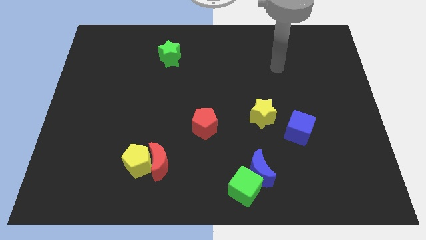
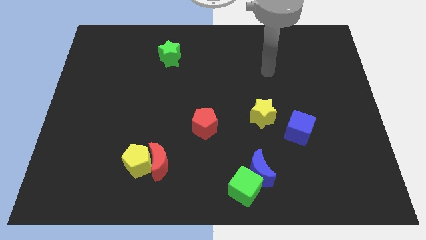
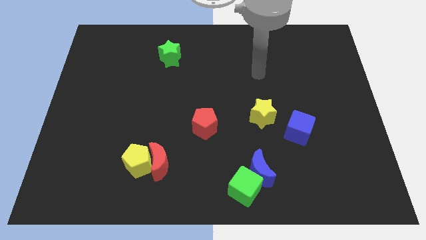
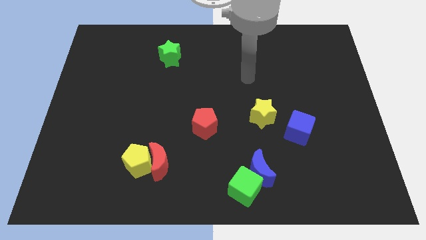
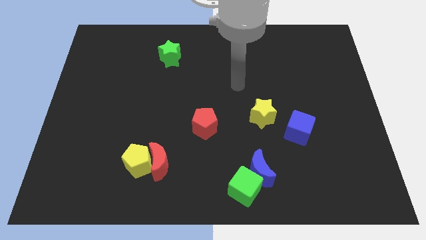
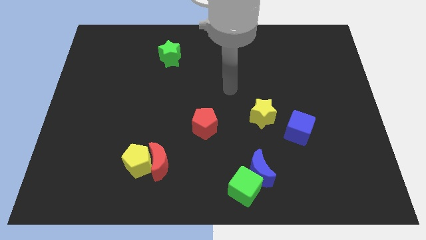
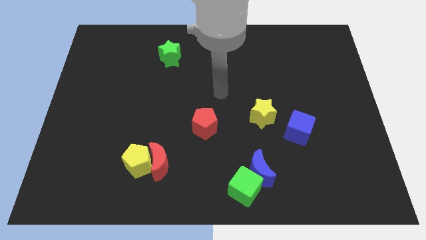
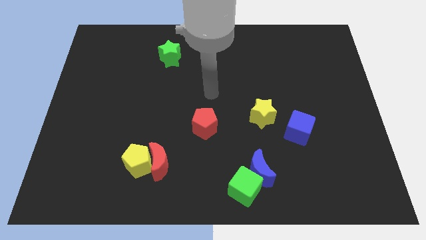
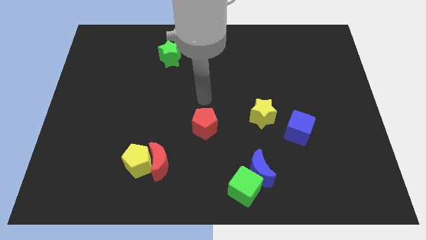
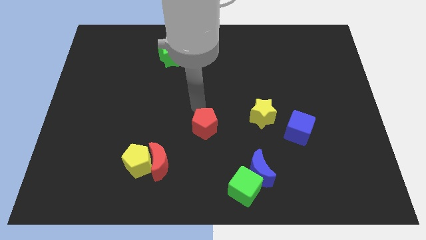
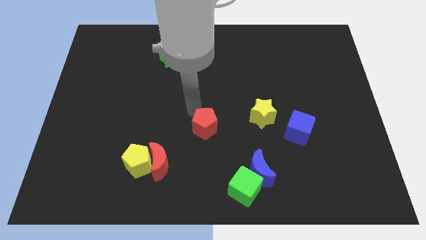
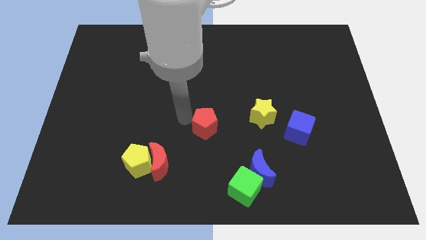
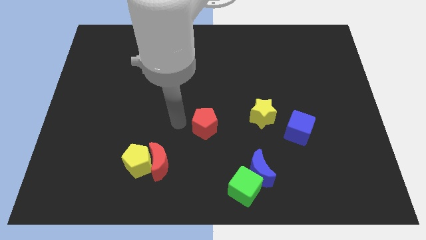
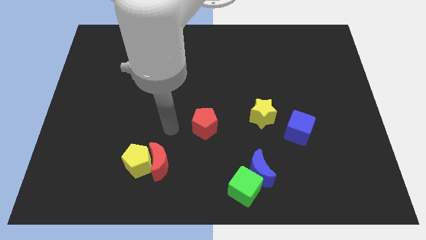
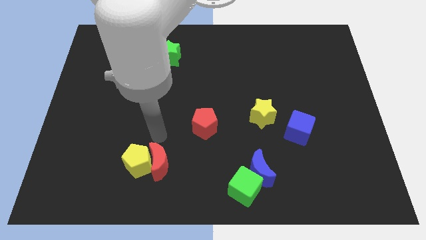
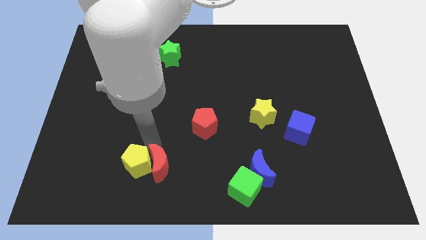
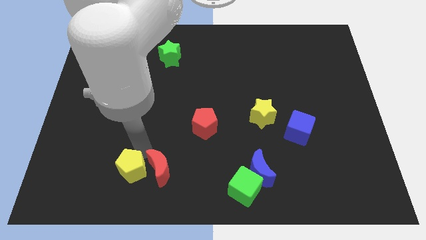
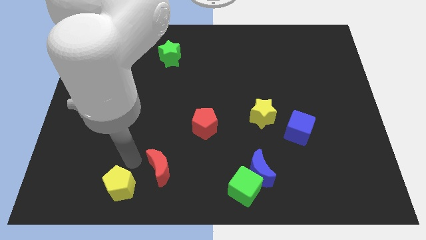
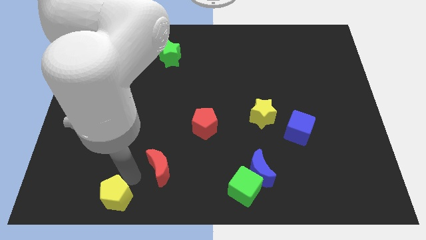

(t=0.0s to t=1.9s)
pull the red moon apart from the yellow pentagon

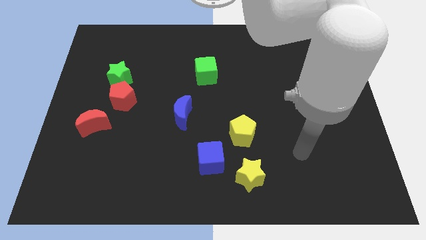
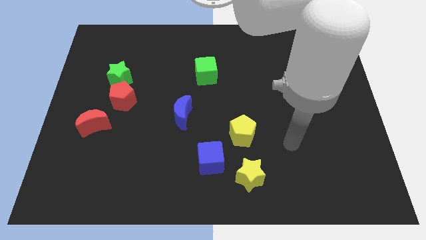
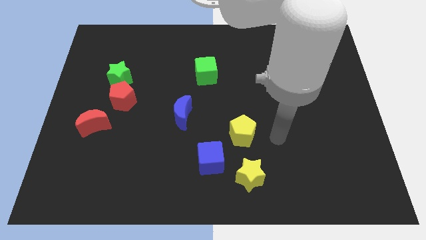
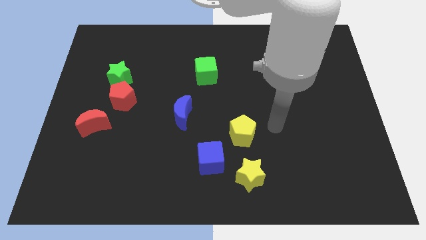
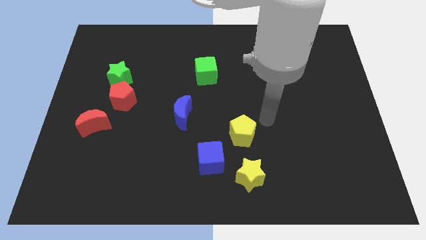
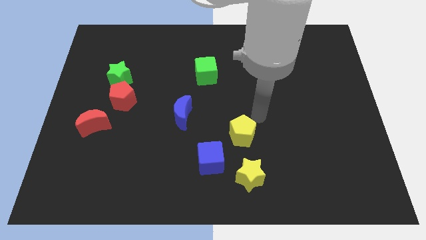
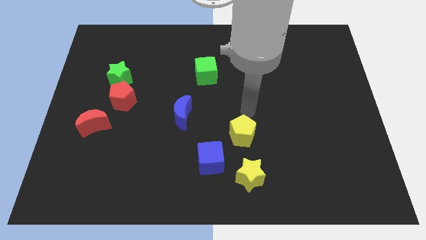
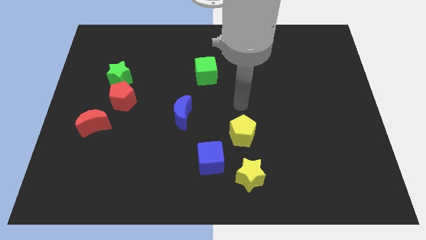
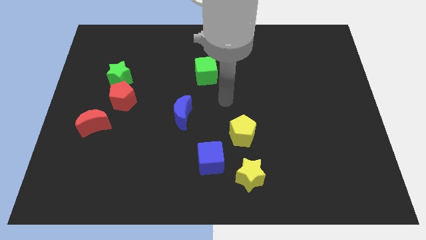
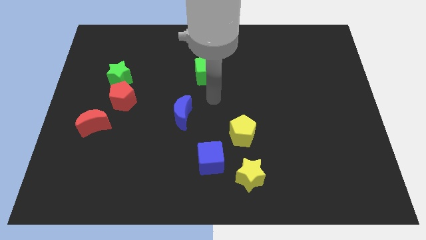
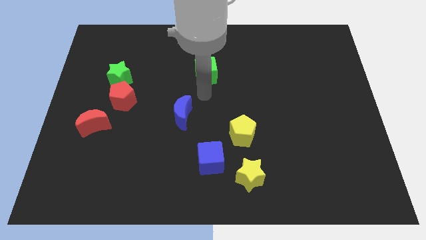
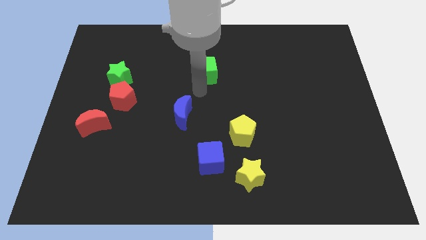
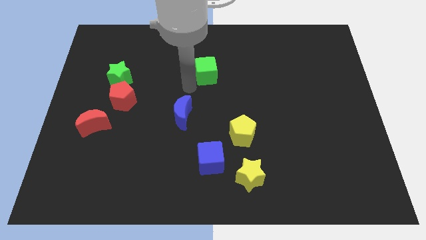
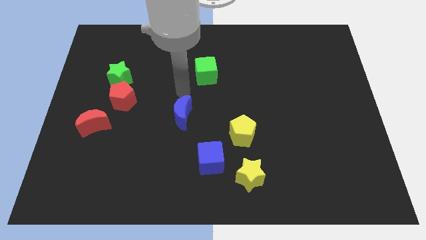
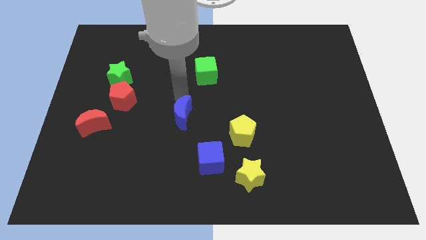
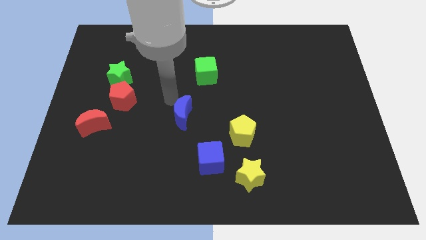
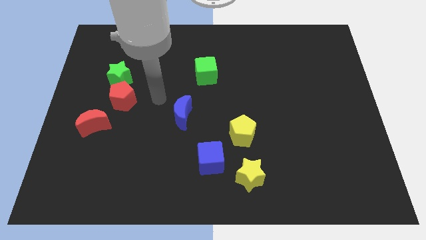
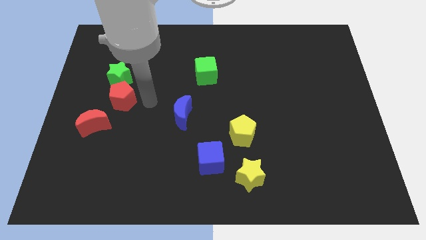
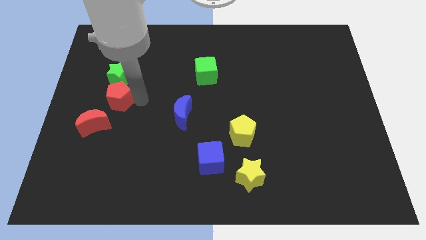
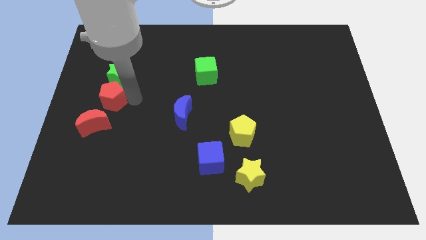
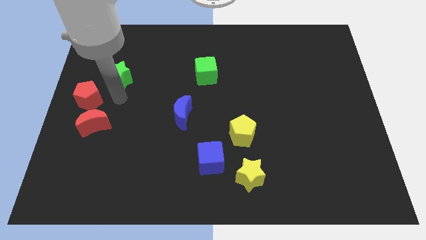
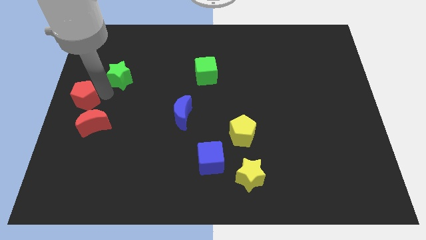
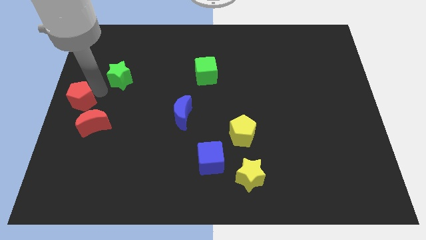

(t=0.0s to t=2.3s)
separate the green star from the red pentagon

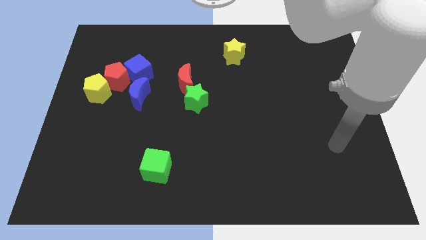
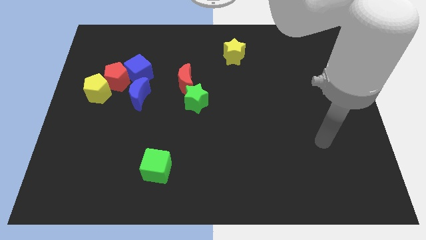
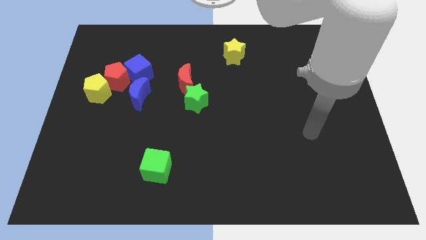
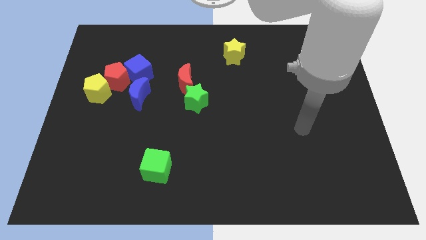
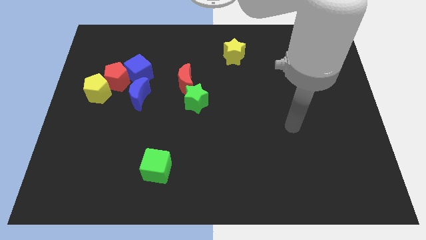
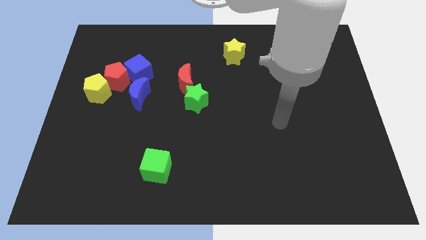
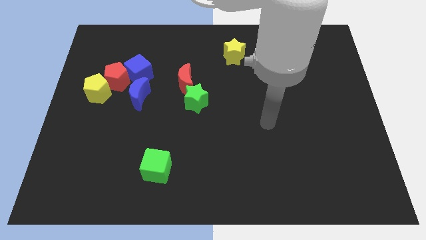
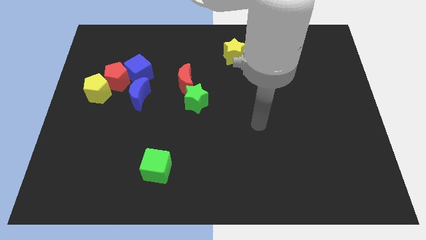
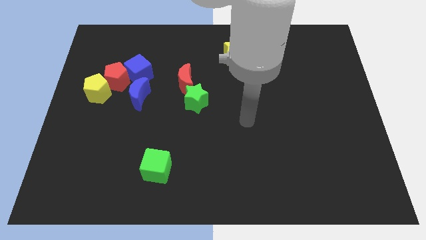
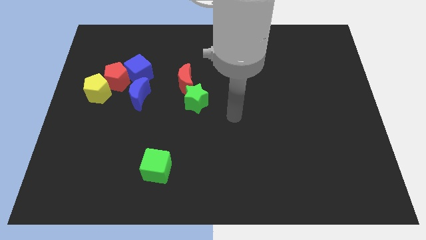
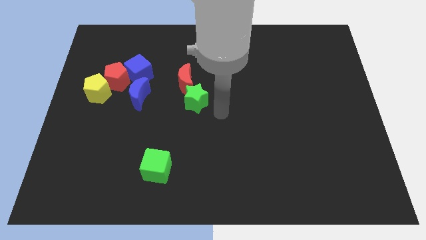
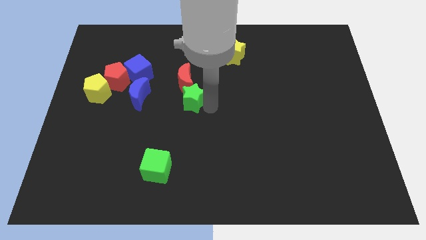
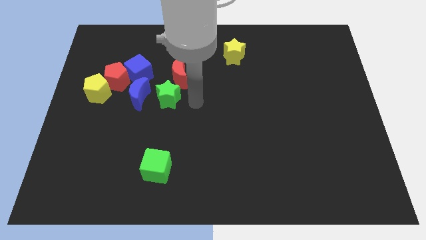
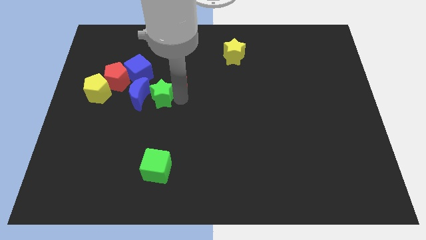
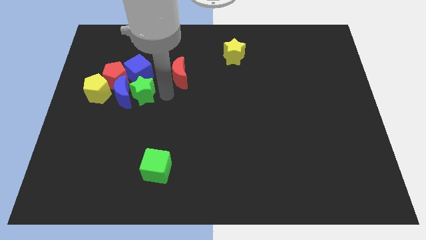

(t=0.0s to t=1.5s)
pull the red moon apart from the green star

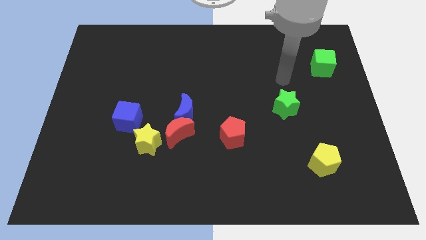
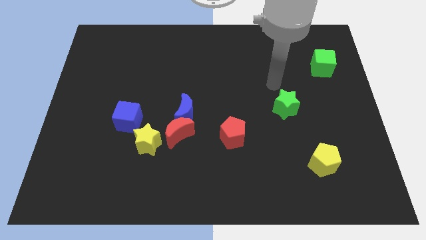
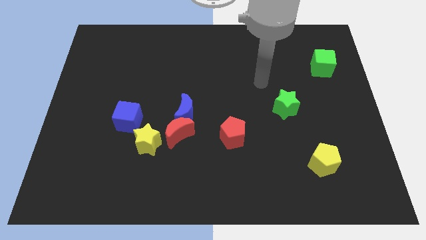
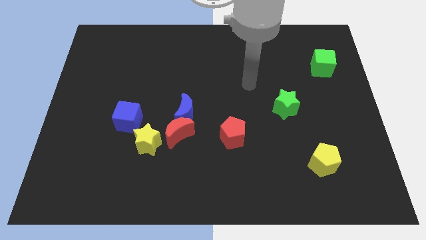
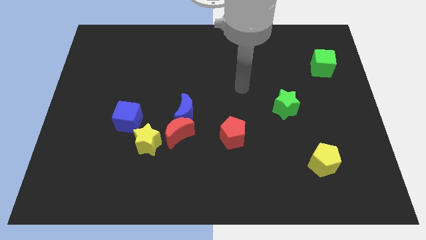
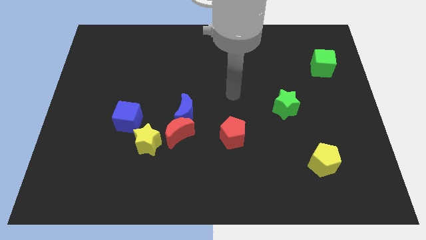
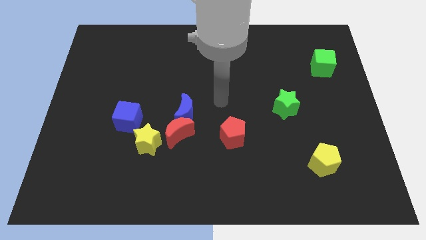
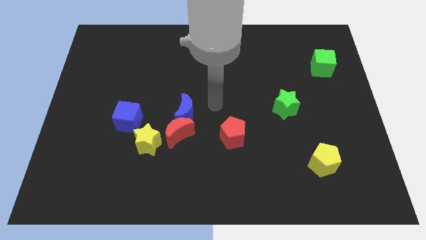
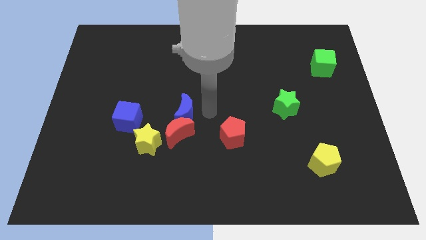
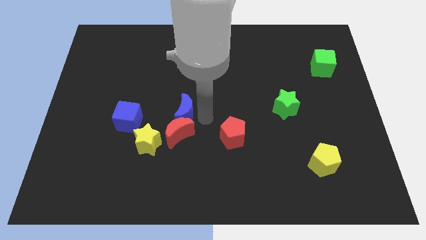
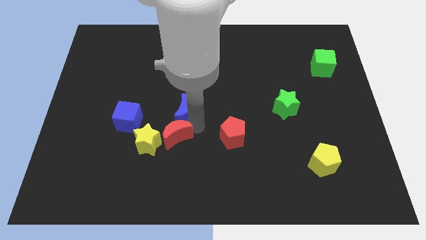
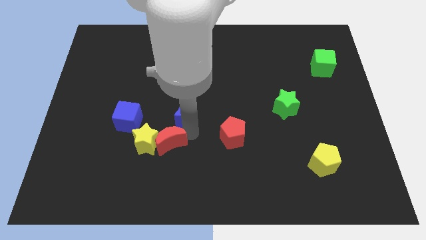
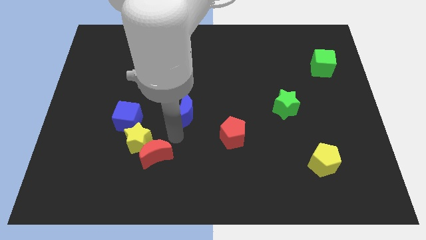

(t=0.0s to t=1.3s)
move the blue moon away from the red moon

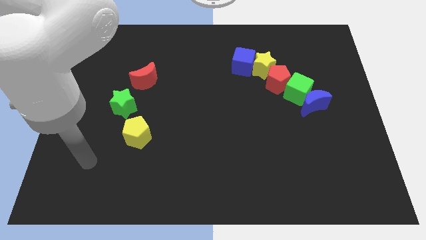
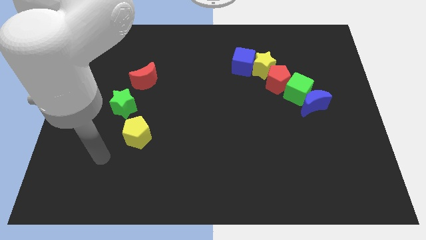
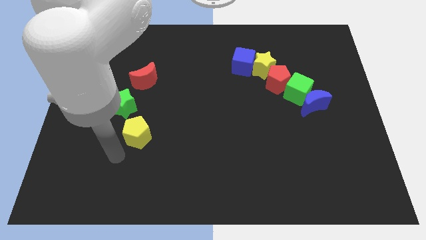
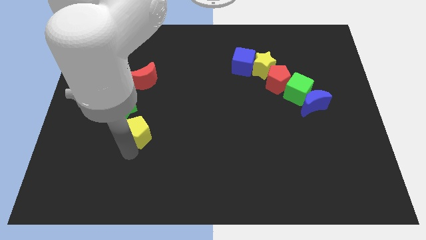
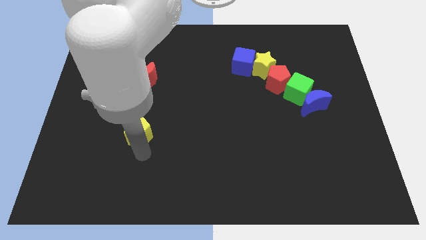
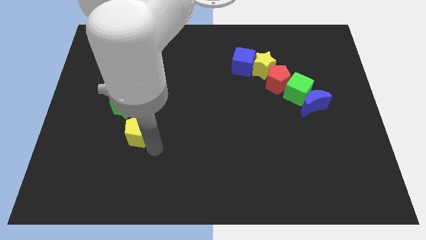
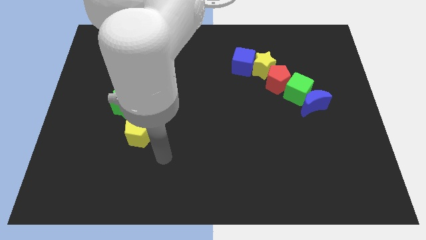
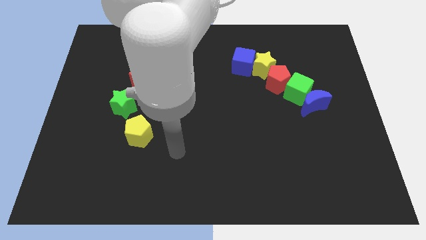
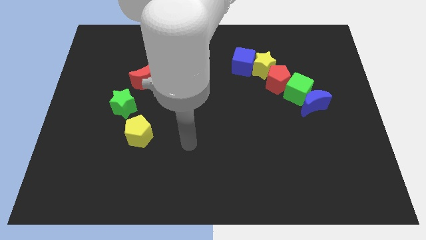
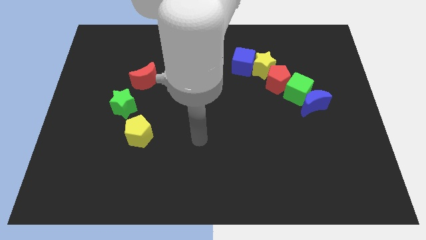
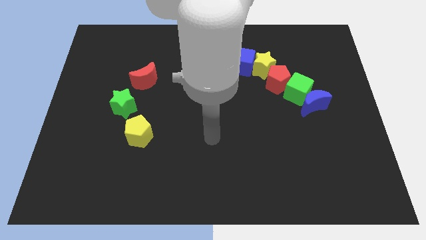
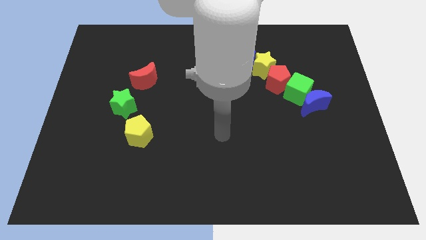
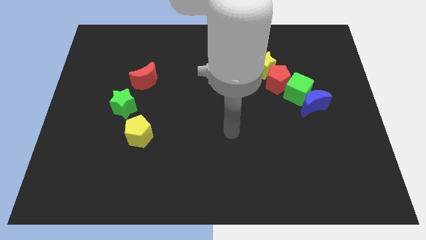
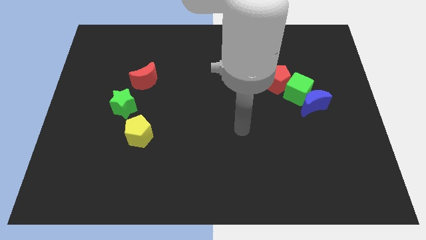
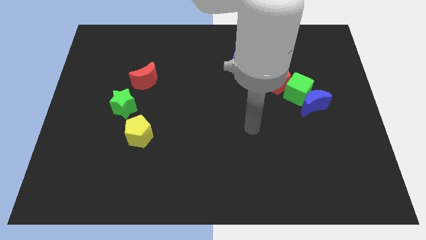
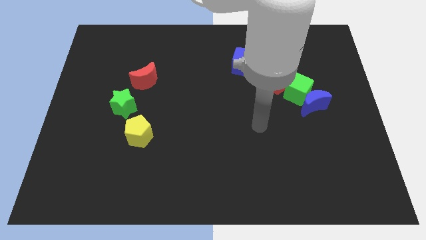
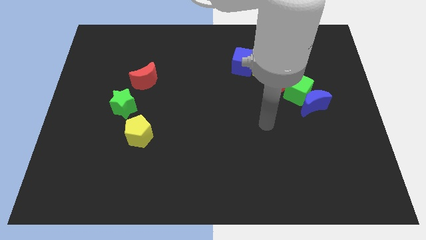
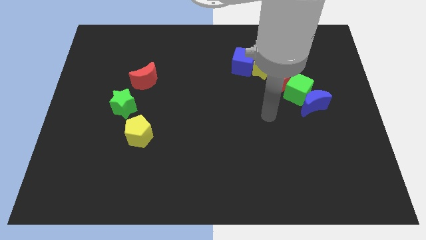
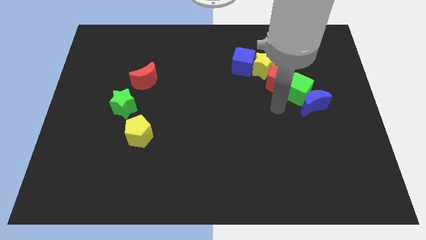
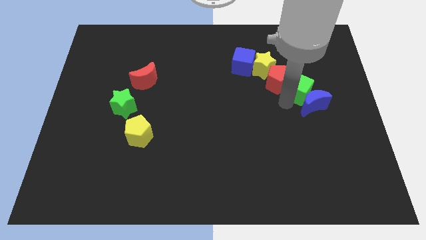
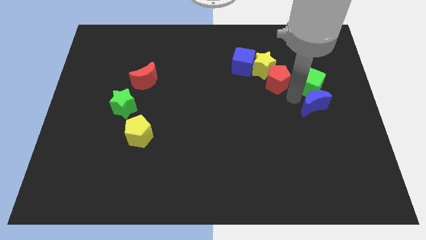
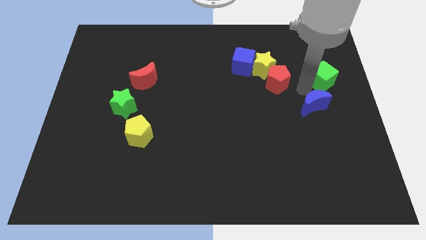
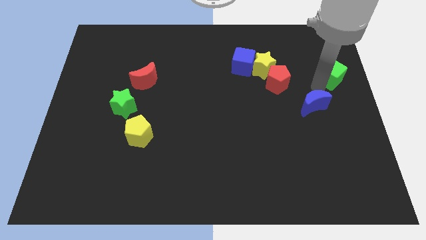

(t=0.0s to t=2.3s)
separate the blue moon from the green cube
